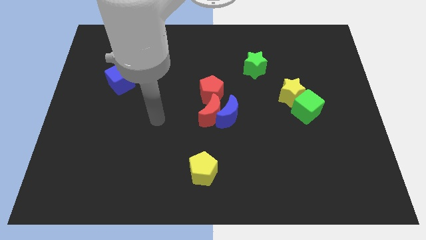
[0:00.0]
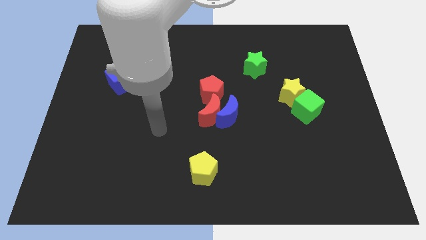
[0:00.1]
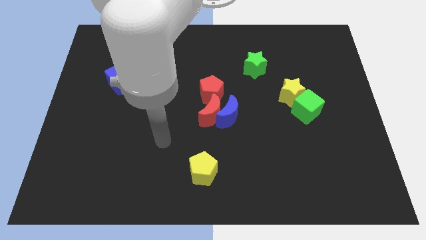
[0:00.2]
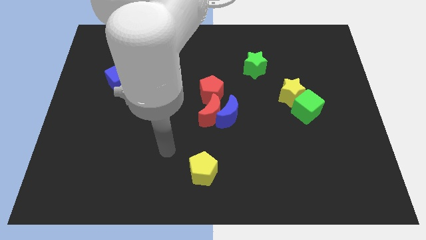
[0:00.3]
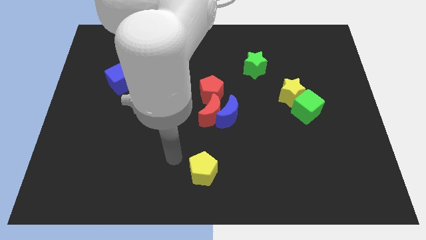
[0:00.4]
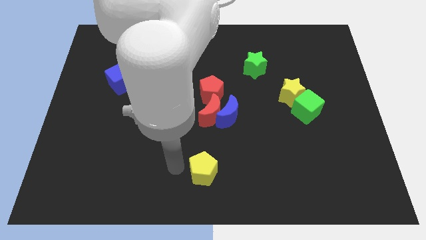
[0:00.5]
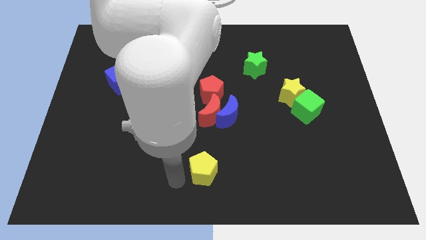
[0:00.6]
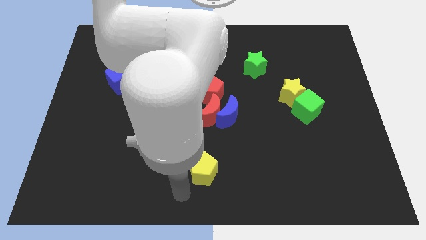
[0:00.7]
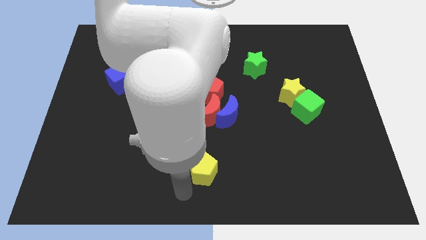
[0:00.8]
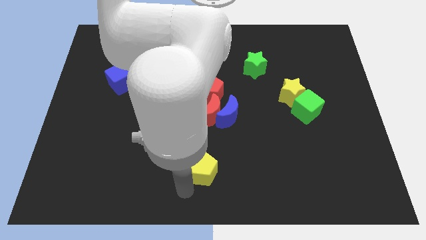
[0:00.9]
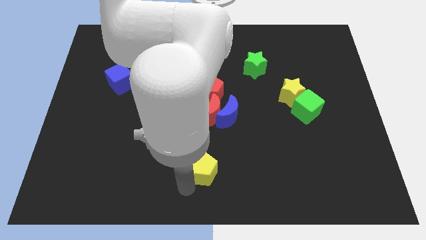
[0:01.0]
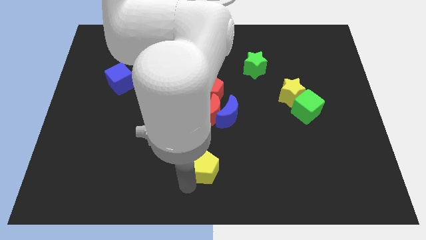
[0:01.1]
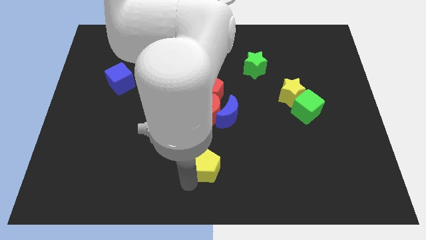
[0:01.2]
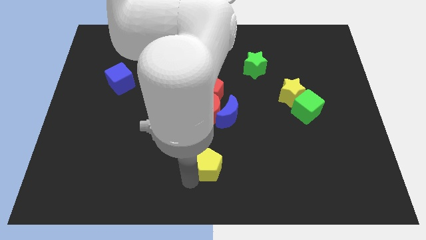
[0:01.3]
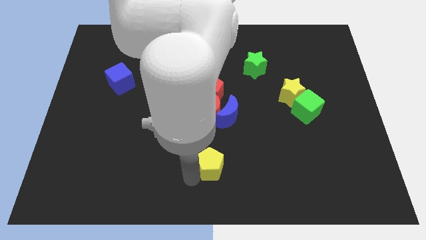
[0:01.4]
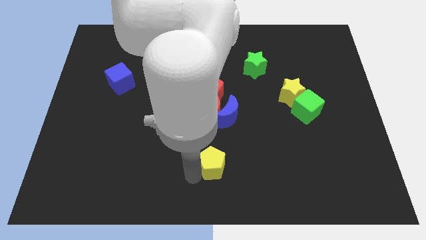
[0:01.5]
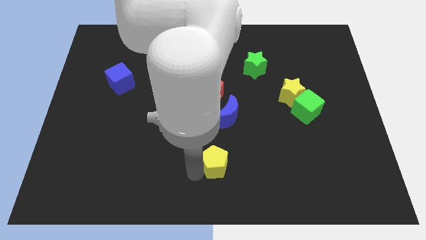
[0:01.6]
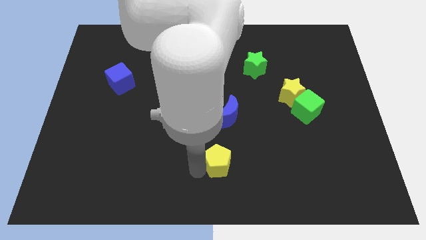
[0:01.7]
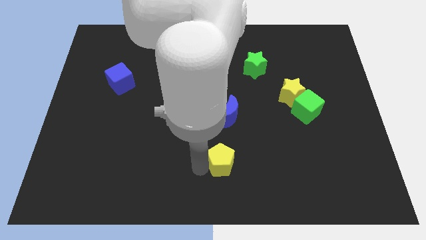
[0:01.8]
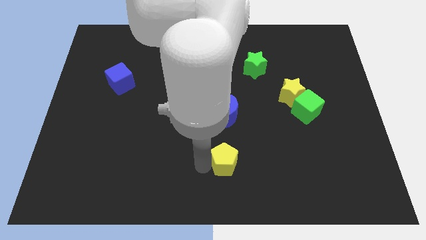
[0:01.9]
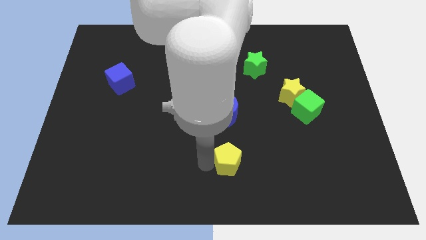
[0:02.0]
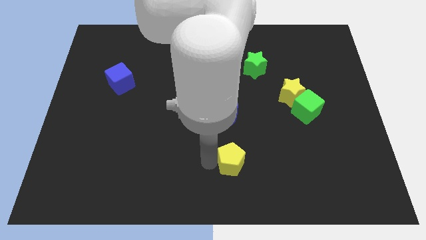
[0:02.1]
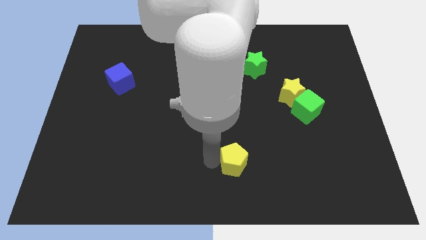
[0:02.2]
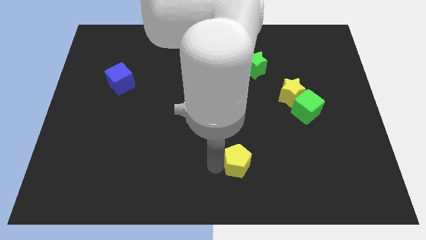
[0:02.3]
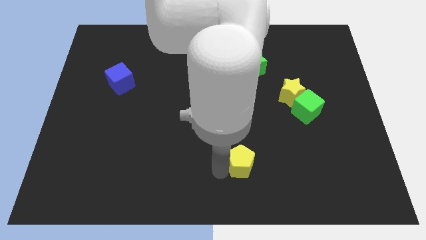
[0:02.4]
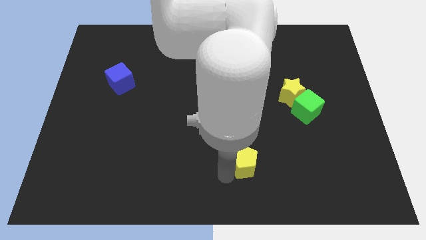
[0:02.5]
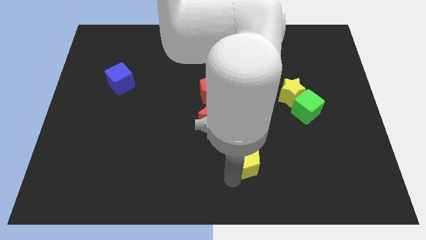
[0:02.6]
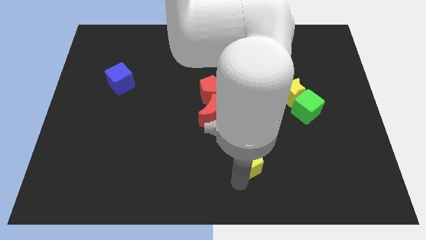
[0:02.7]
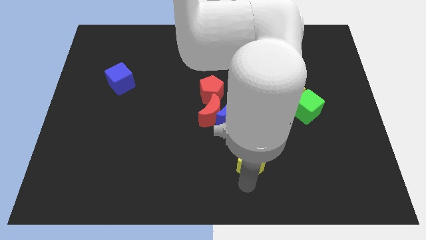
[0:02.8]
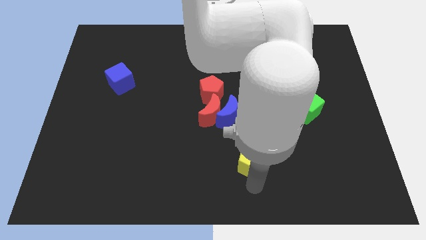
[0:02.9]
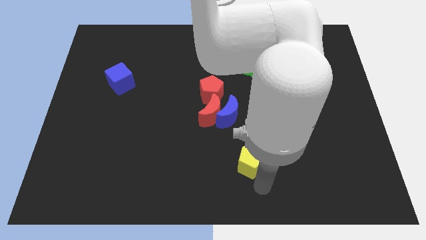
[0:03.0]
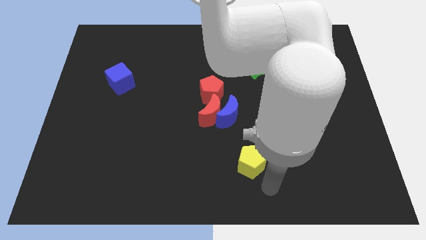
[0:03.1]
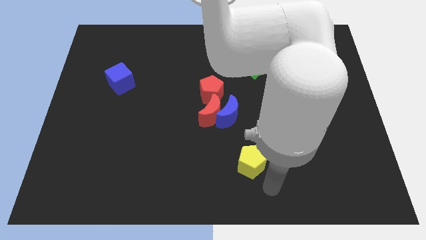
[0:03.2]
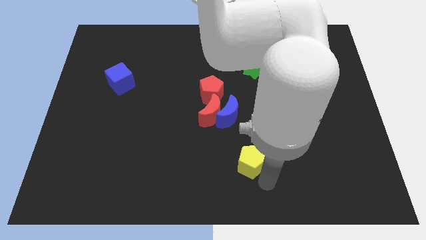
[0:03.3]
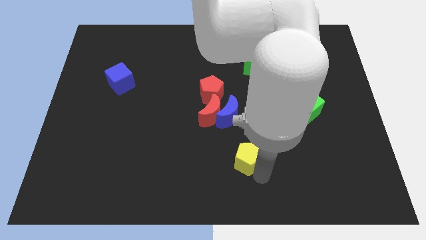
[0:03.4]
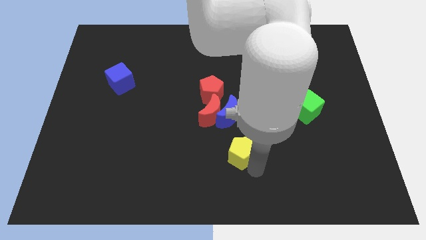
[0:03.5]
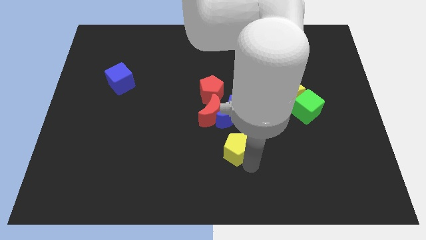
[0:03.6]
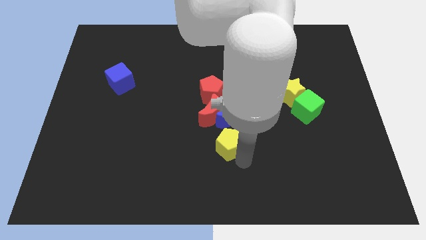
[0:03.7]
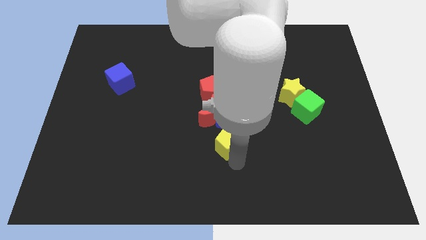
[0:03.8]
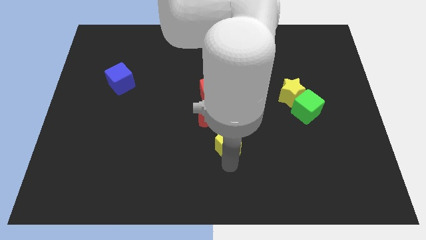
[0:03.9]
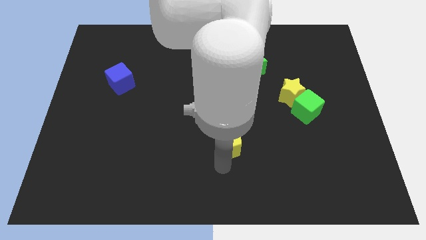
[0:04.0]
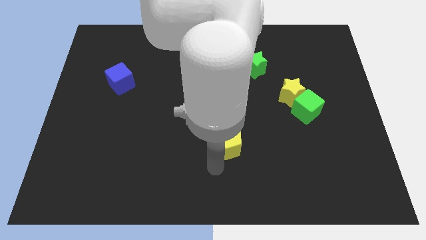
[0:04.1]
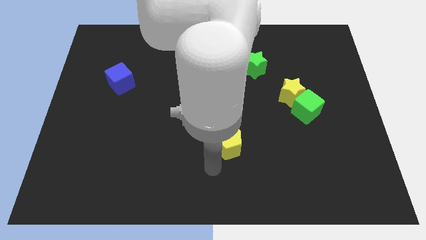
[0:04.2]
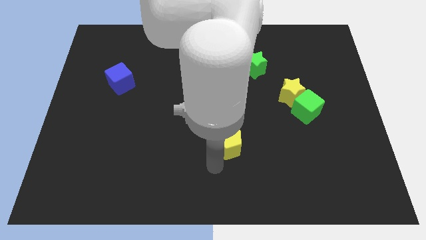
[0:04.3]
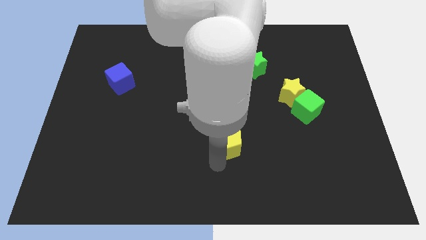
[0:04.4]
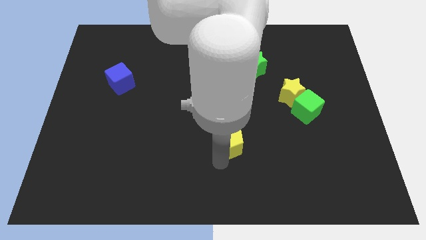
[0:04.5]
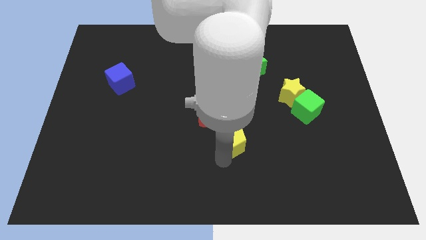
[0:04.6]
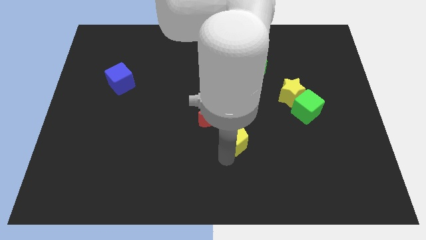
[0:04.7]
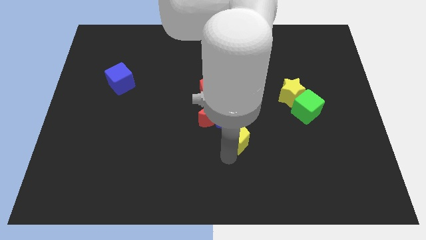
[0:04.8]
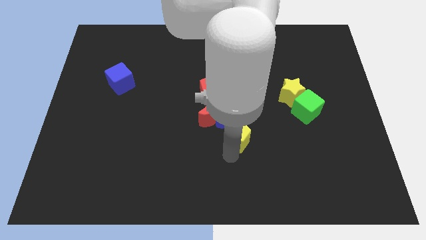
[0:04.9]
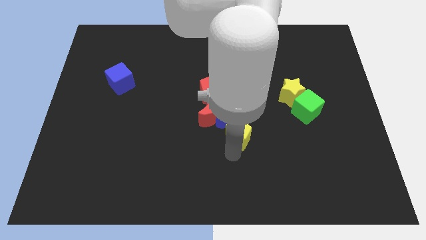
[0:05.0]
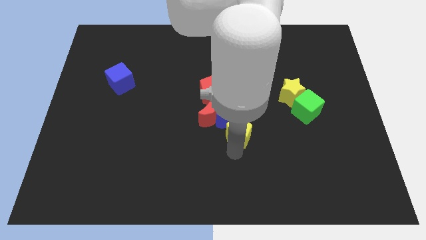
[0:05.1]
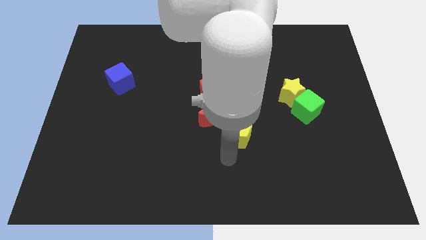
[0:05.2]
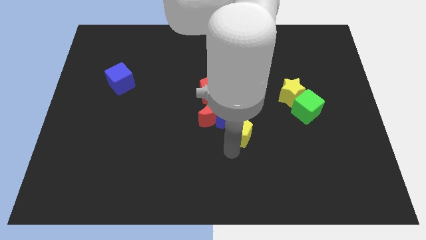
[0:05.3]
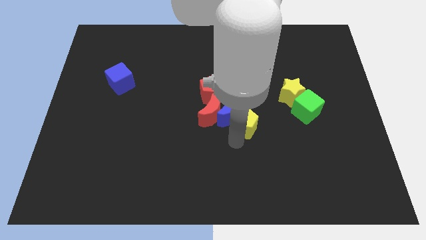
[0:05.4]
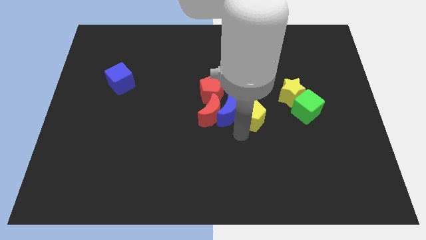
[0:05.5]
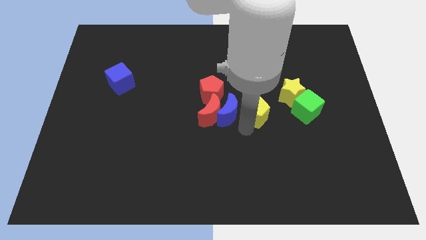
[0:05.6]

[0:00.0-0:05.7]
move the yellow pentagon below the green star

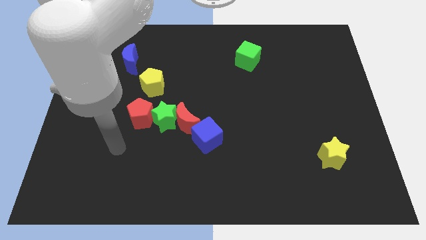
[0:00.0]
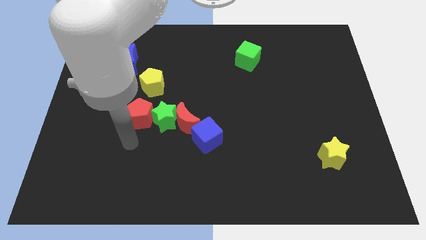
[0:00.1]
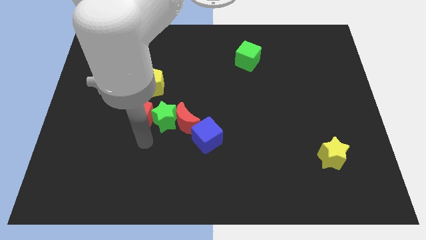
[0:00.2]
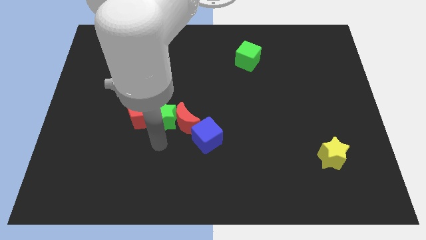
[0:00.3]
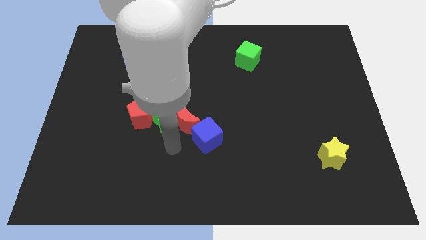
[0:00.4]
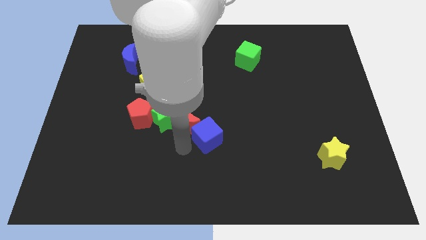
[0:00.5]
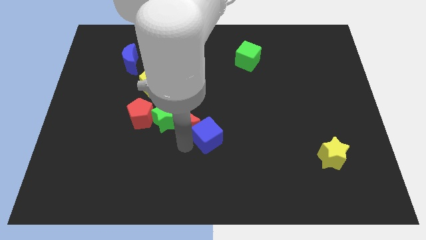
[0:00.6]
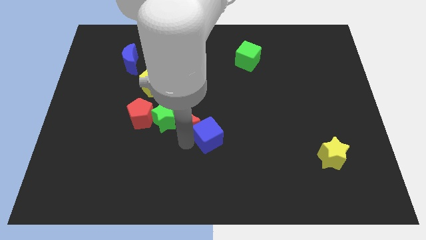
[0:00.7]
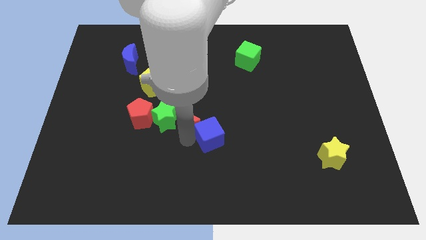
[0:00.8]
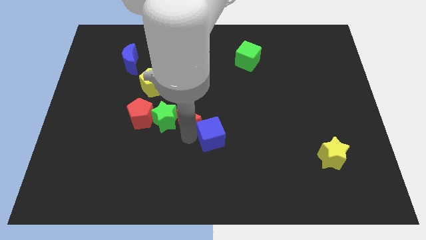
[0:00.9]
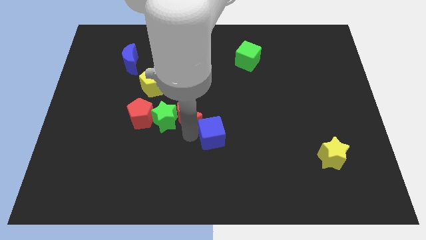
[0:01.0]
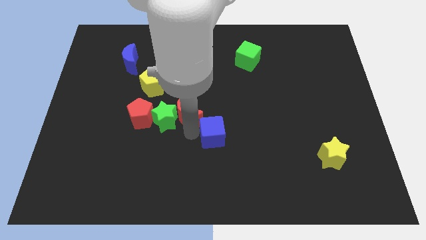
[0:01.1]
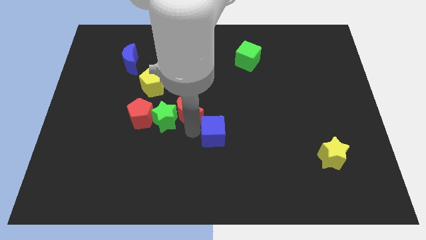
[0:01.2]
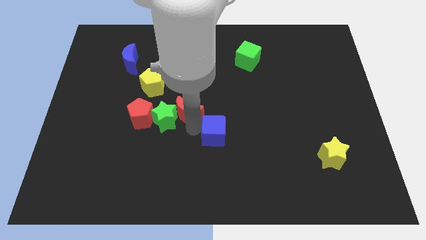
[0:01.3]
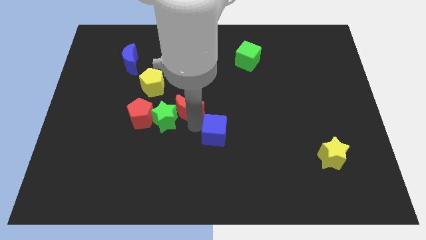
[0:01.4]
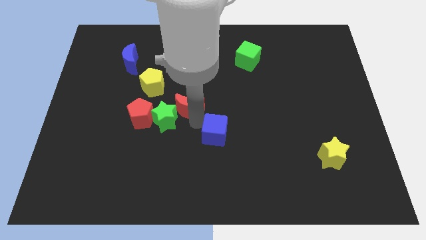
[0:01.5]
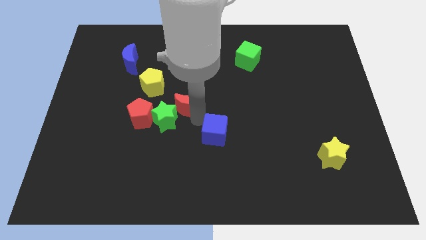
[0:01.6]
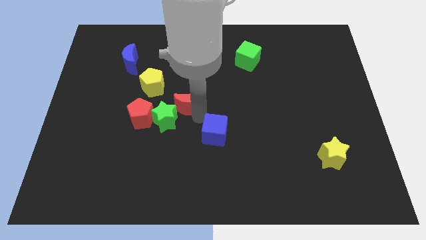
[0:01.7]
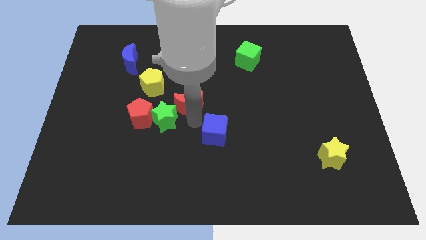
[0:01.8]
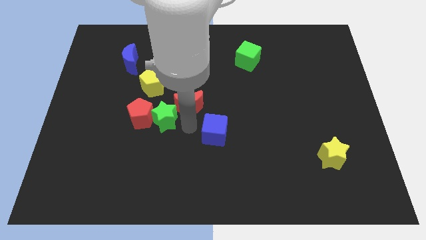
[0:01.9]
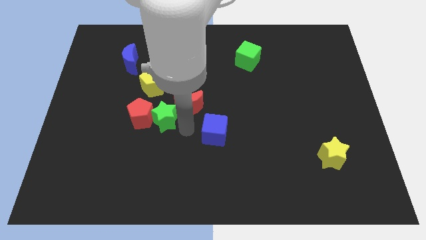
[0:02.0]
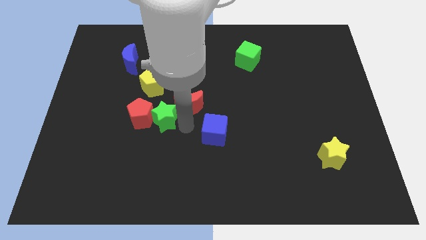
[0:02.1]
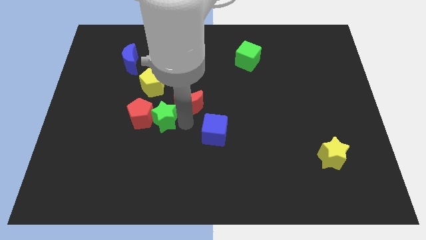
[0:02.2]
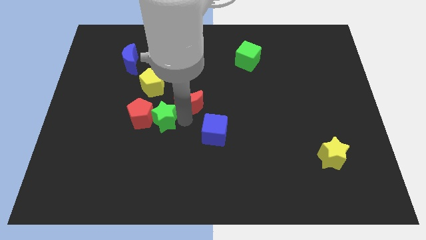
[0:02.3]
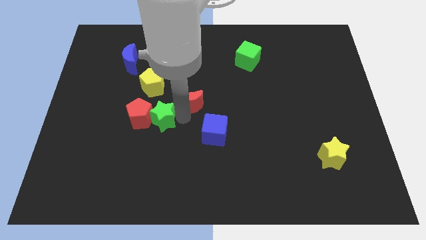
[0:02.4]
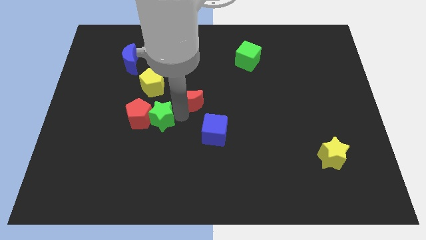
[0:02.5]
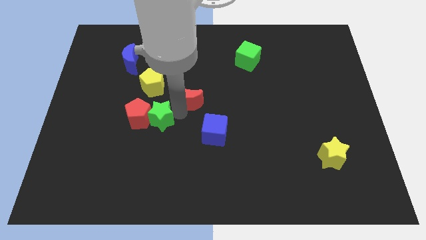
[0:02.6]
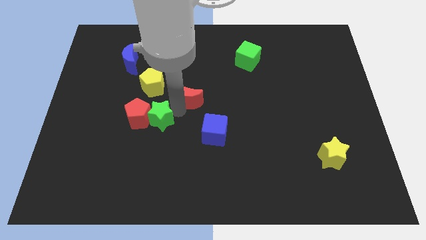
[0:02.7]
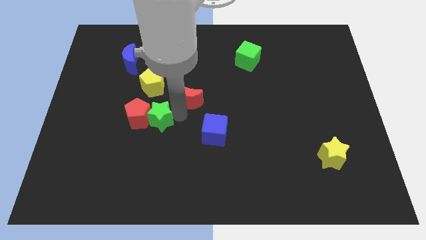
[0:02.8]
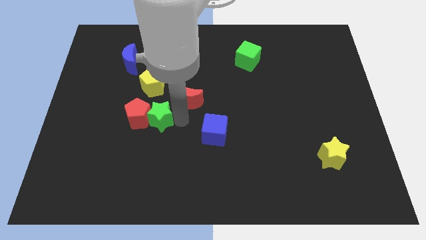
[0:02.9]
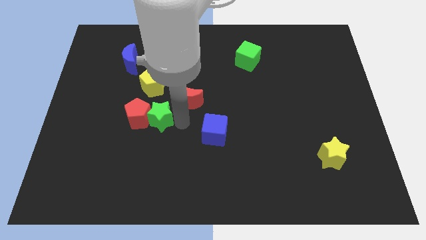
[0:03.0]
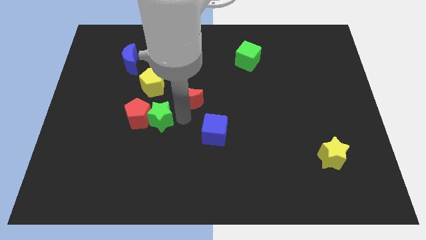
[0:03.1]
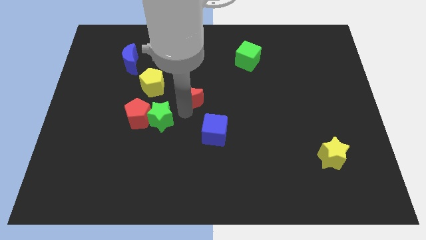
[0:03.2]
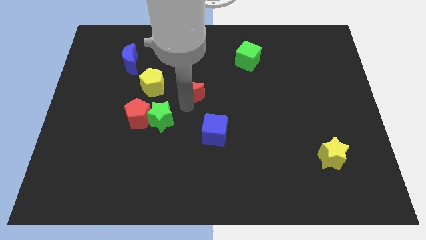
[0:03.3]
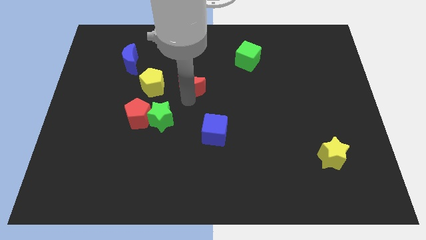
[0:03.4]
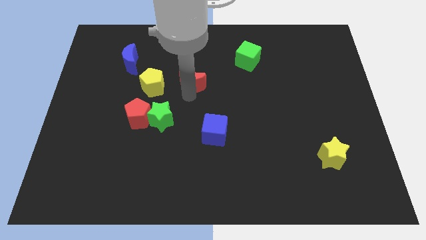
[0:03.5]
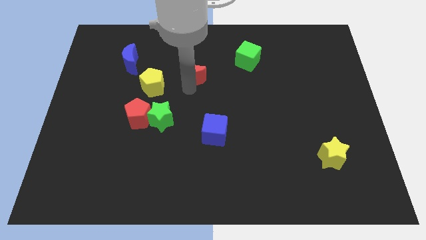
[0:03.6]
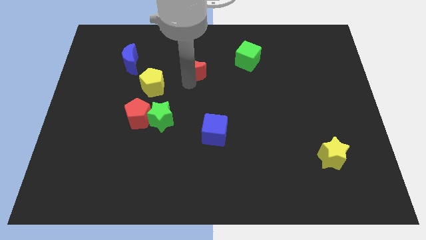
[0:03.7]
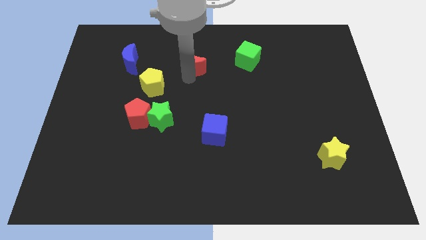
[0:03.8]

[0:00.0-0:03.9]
push the red moon just left of the green cube
